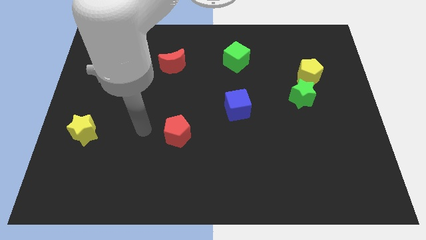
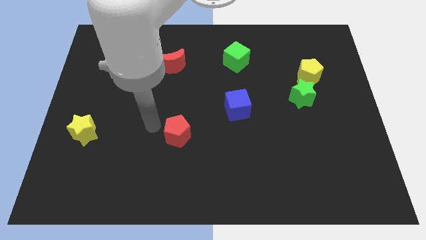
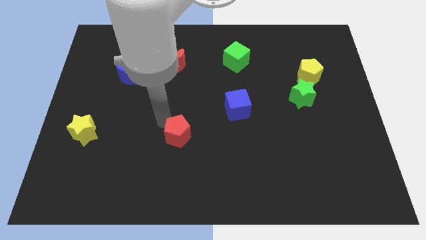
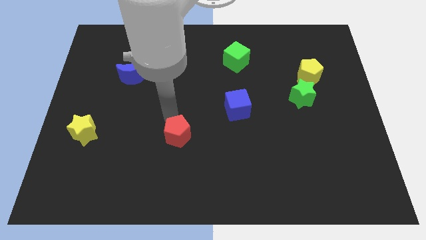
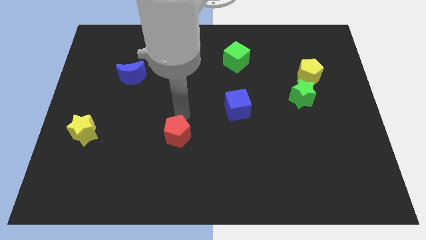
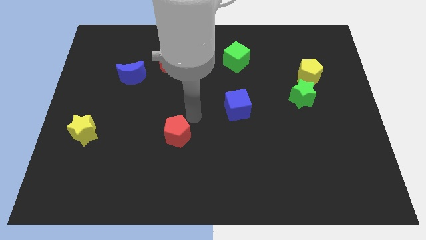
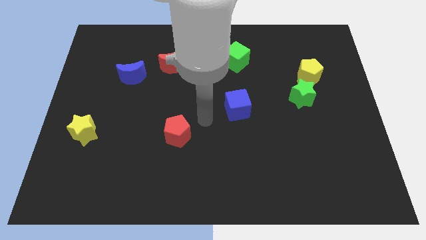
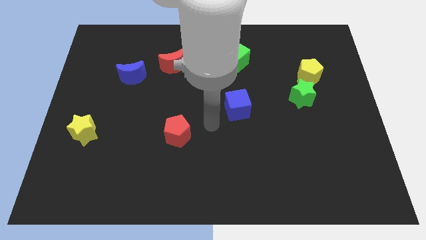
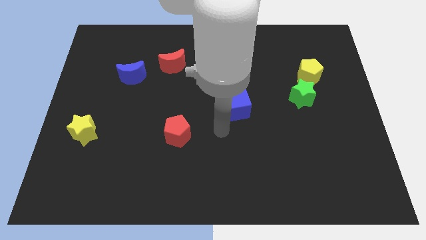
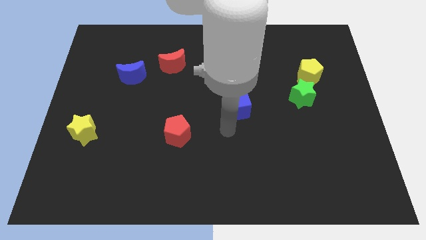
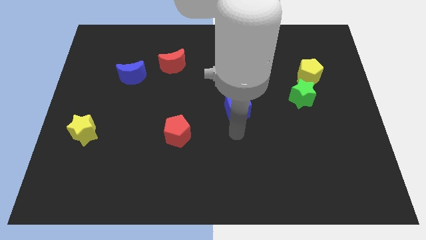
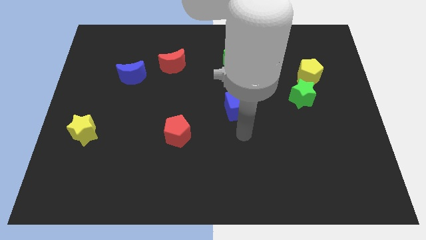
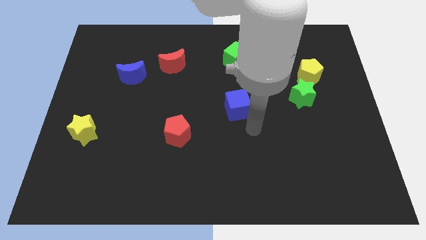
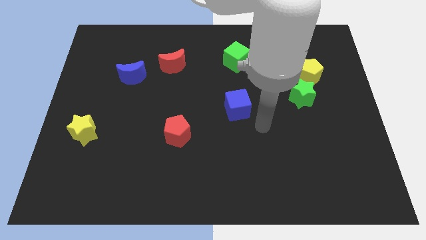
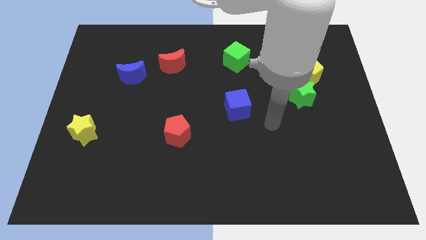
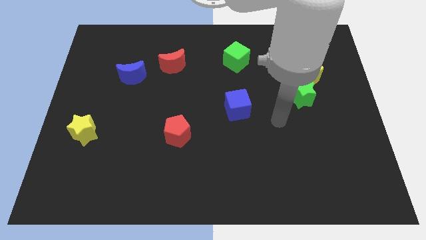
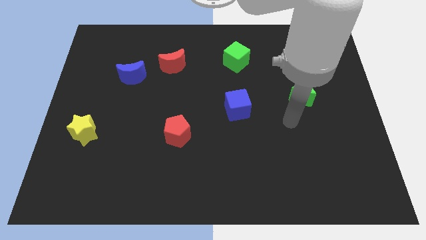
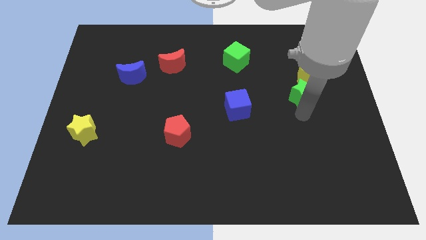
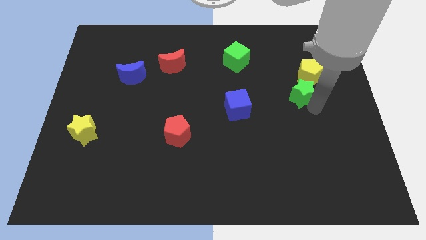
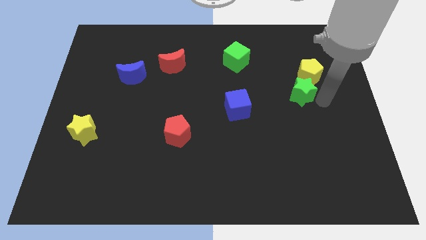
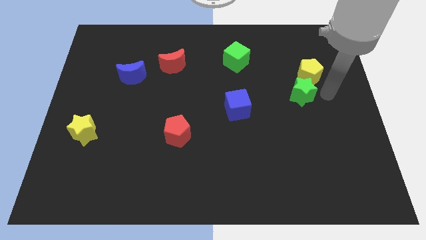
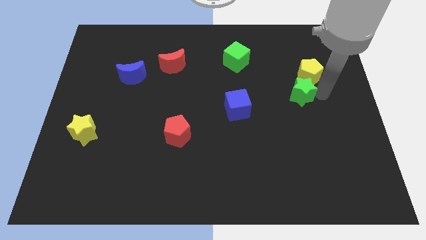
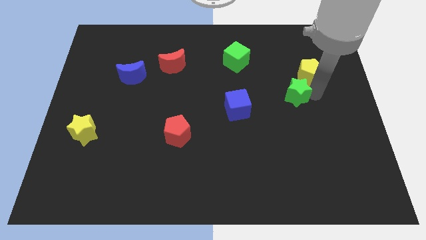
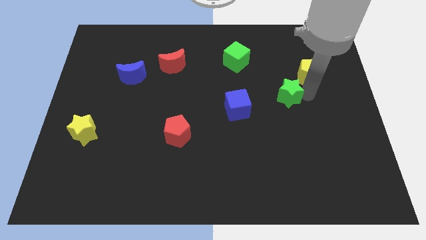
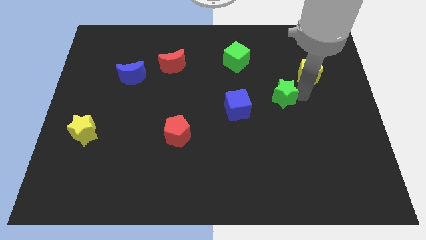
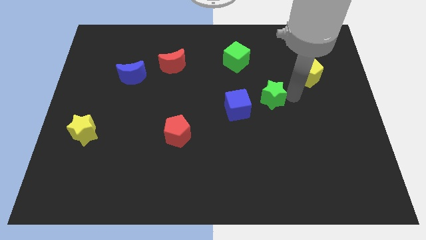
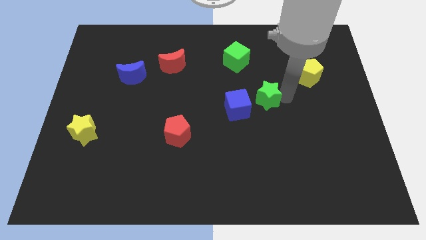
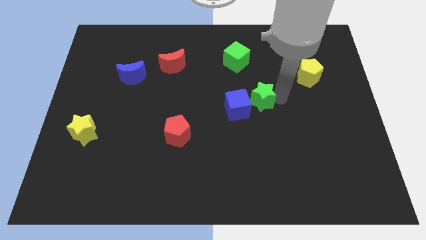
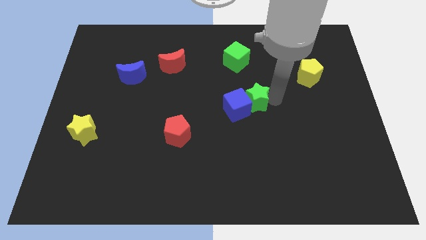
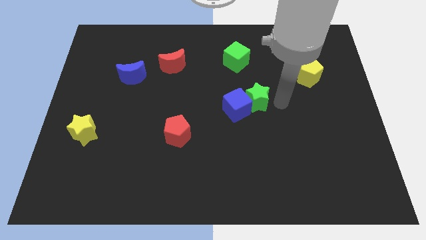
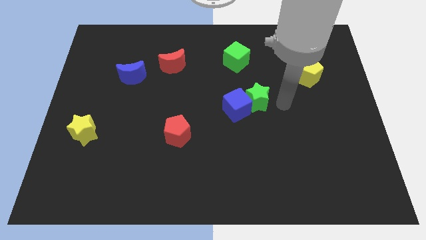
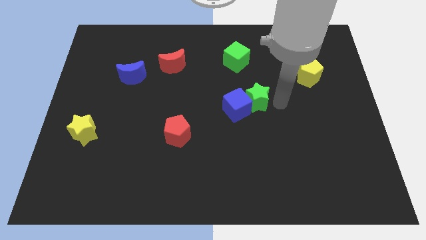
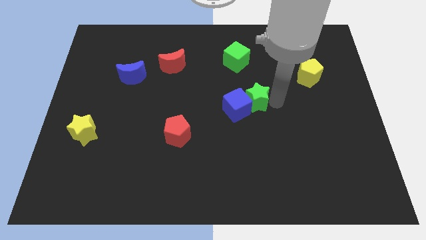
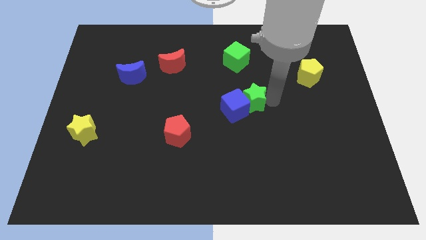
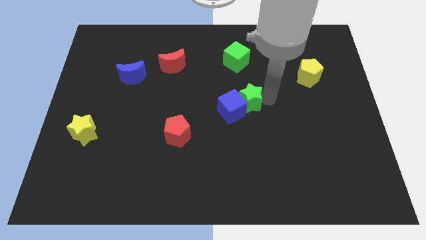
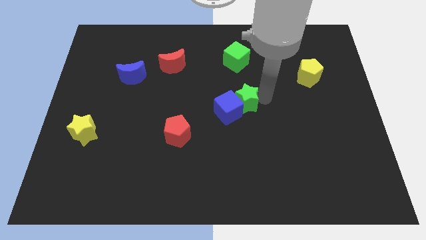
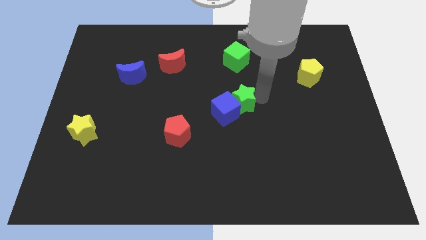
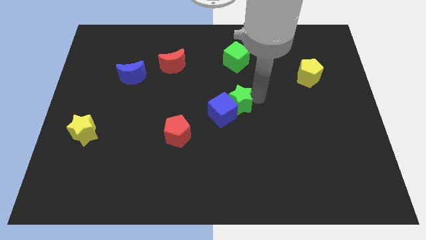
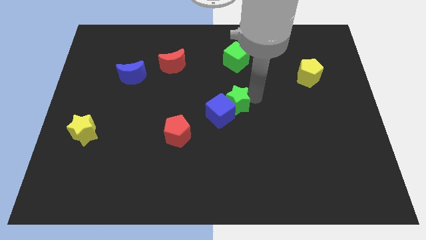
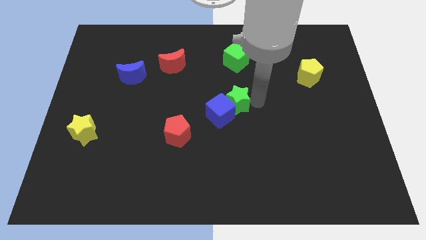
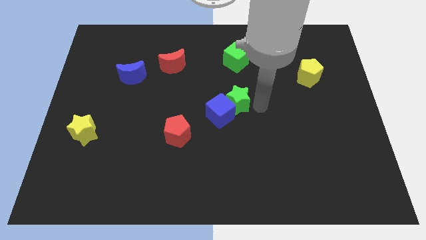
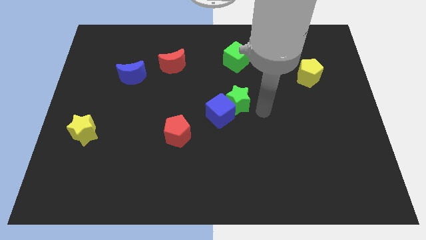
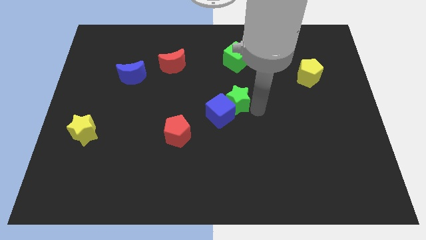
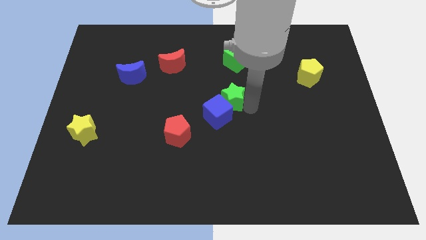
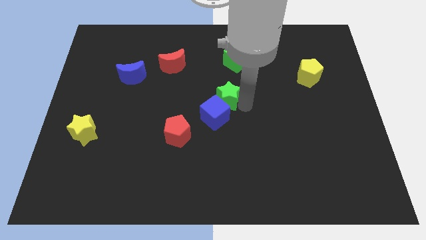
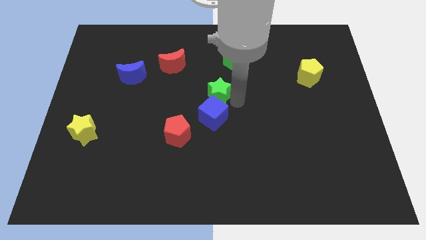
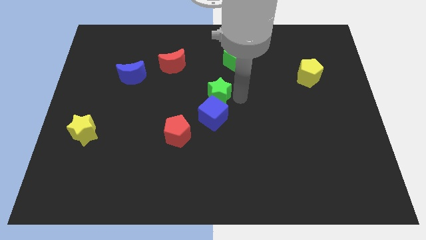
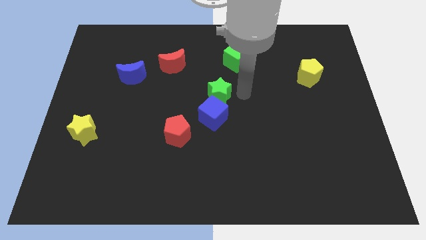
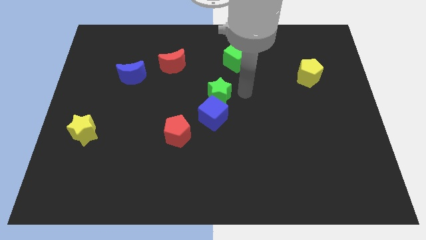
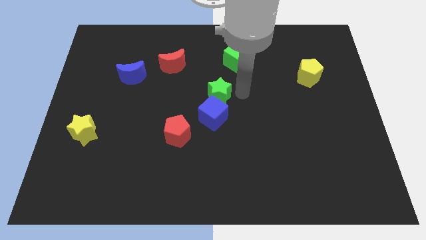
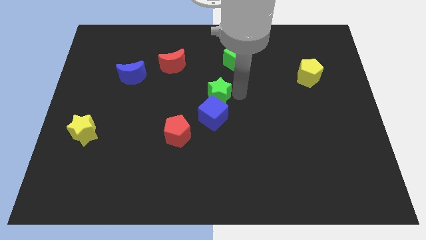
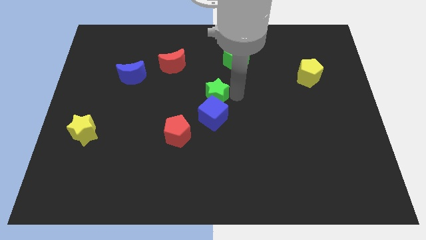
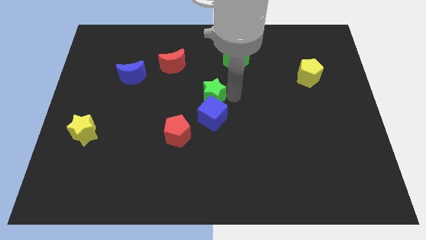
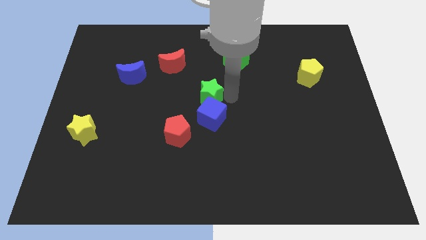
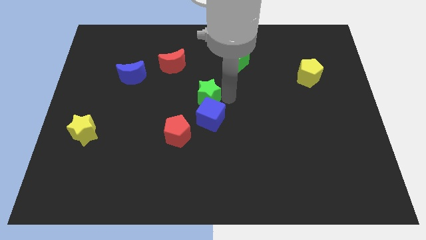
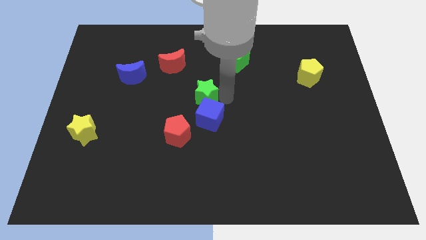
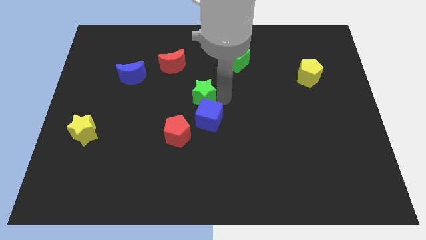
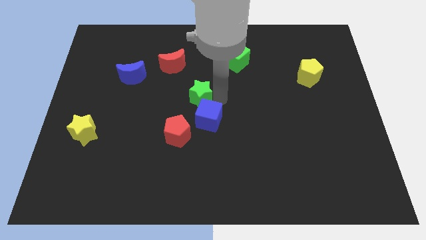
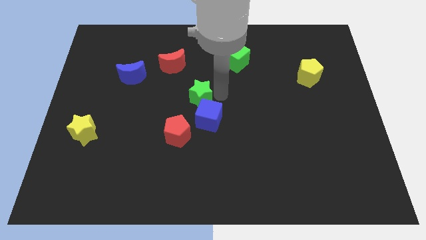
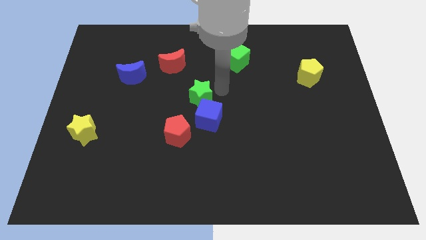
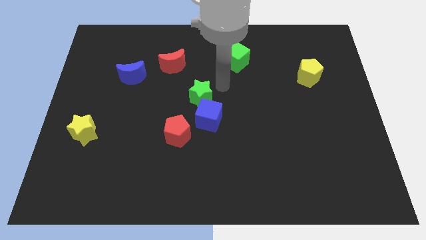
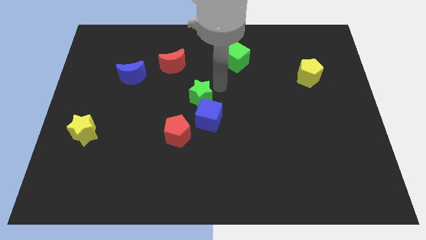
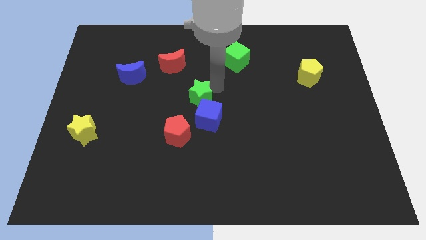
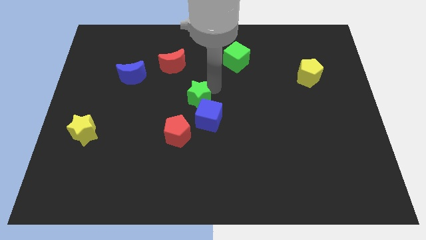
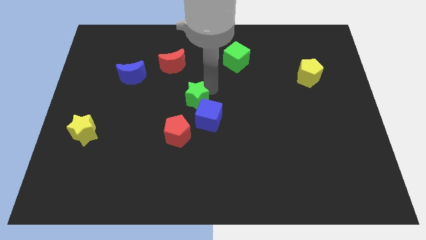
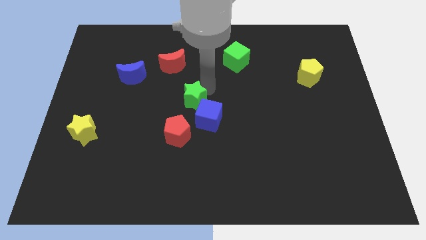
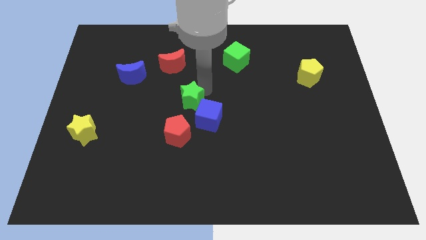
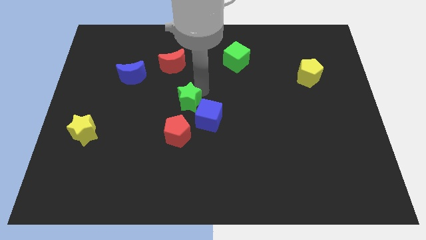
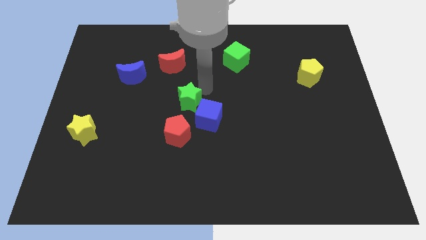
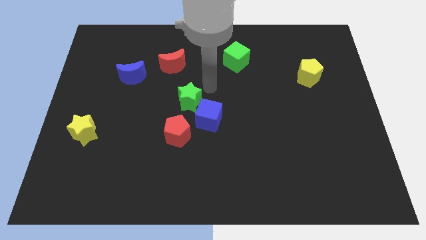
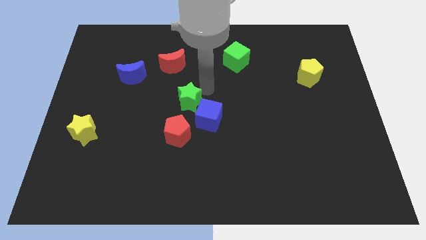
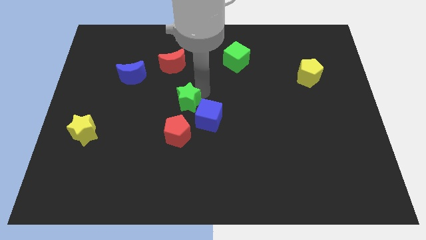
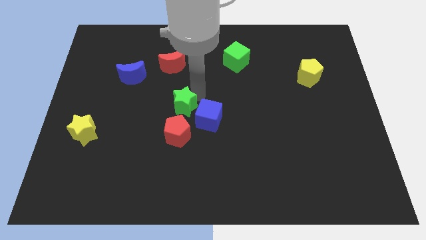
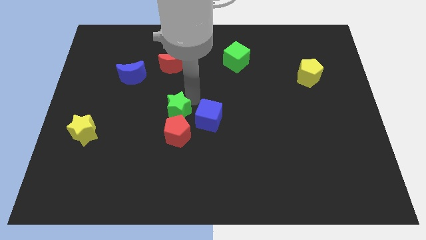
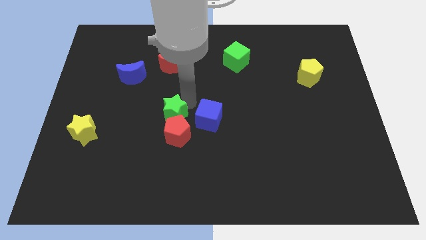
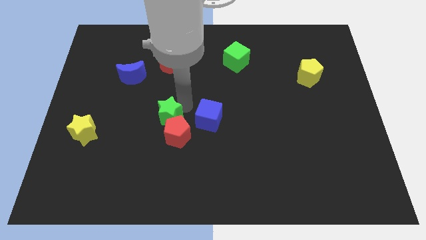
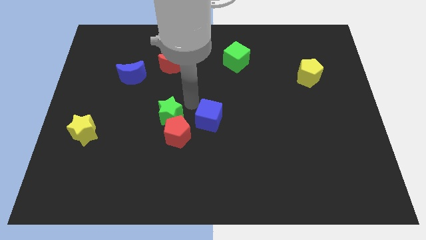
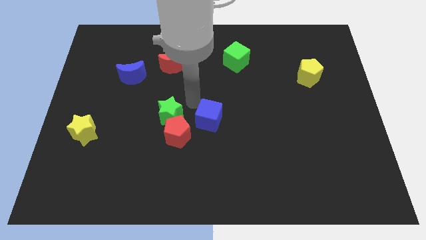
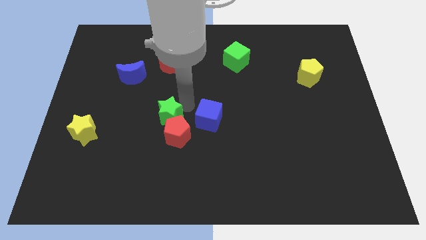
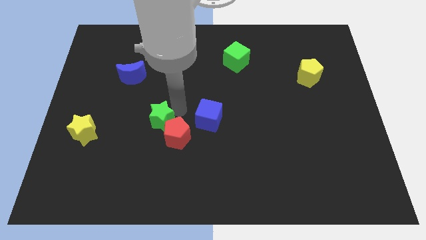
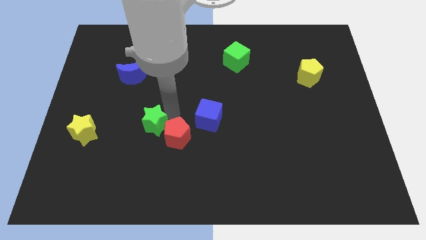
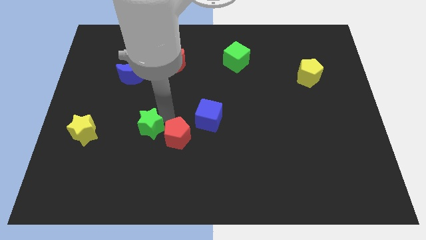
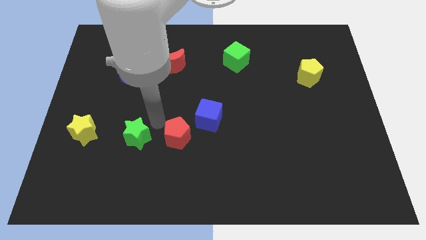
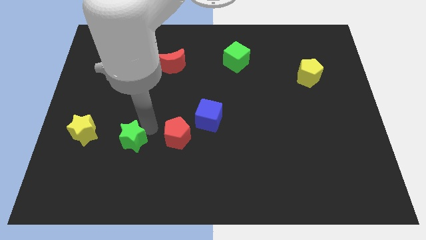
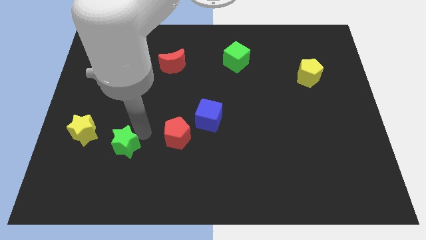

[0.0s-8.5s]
put the green star diagonally down and to the right of the yellow star
